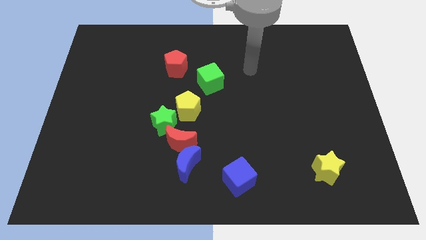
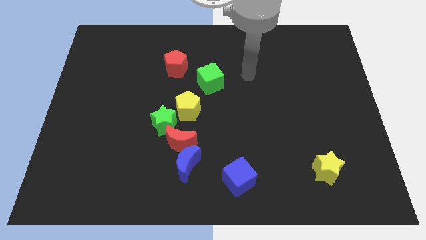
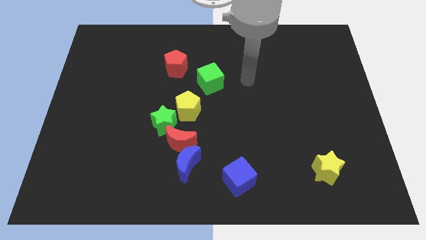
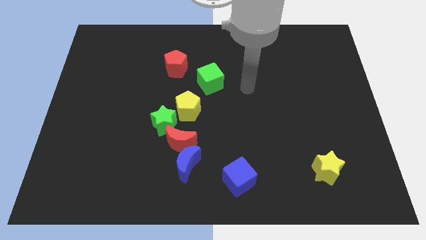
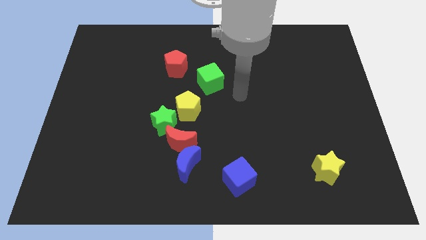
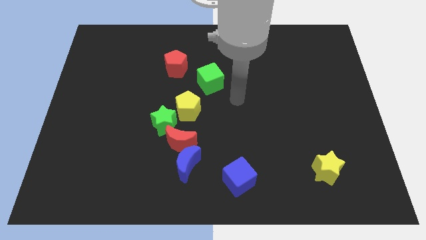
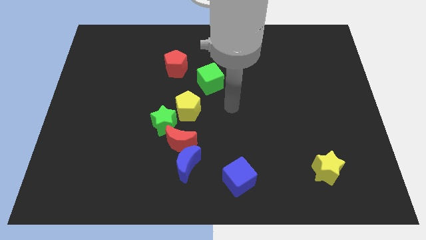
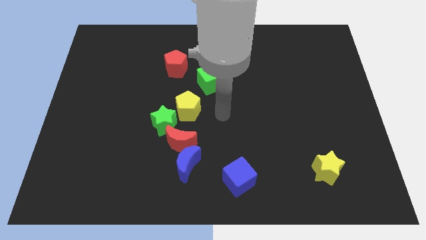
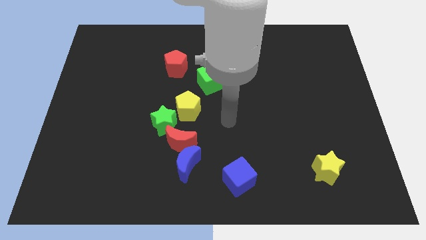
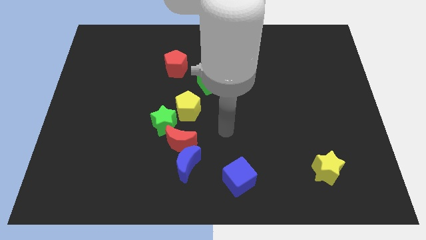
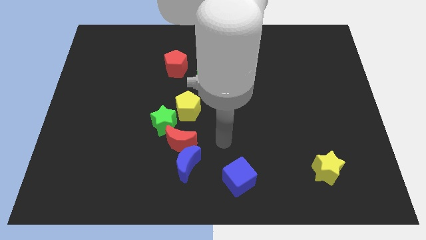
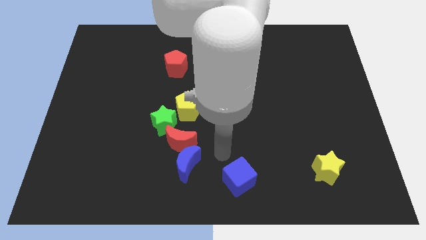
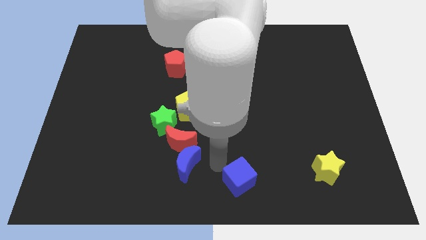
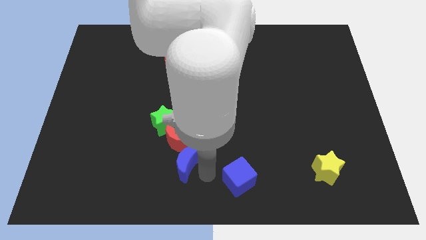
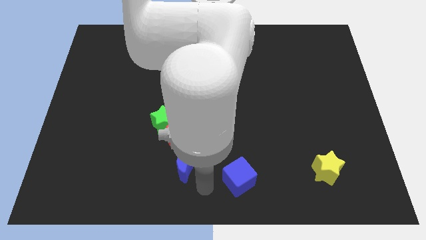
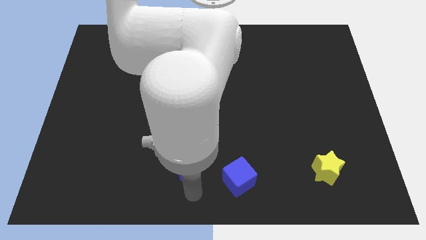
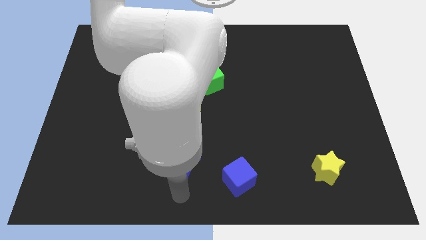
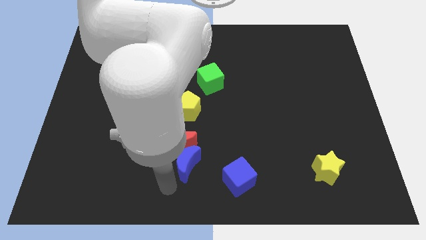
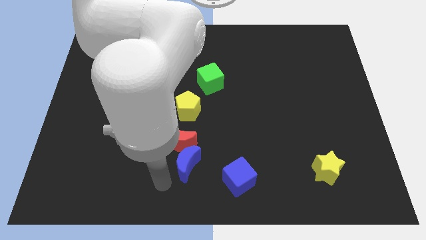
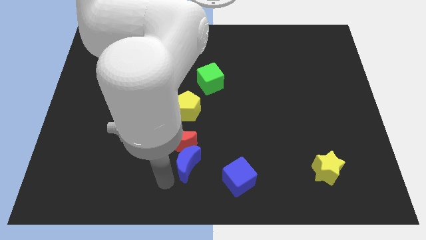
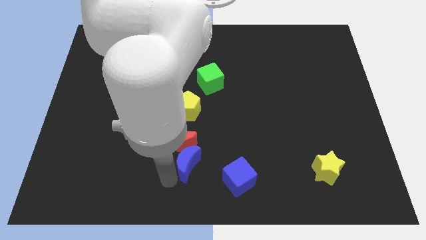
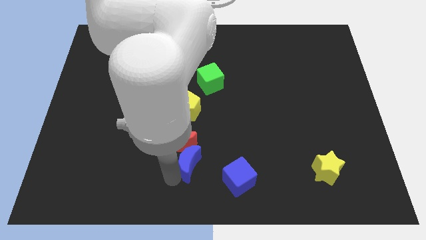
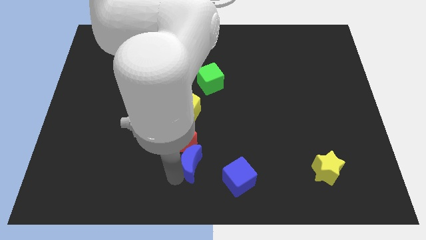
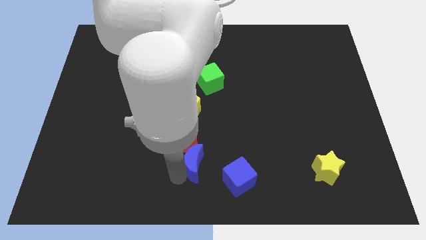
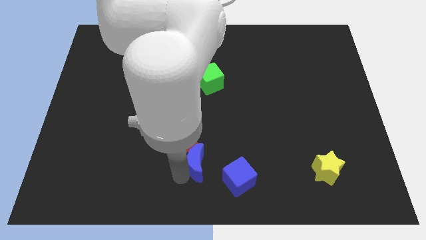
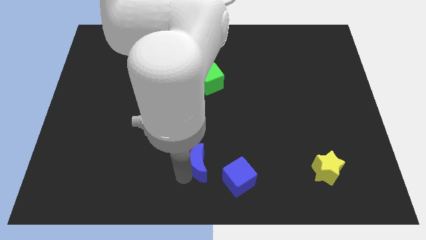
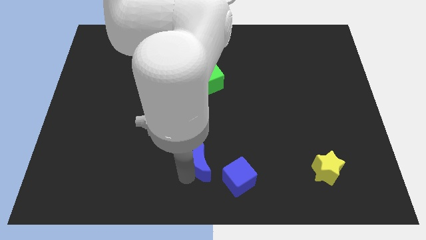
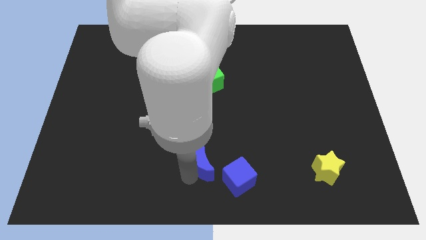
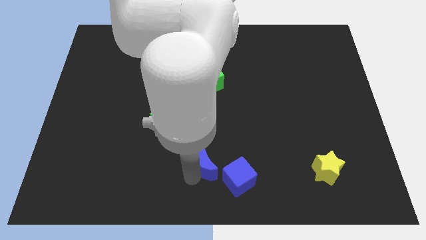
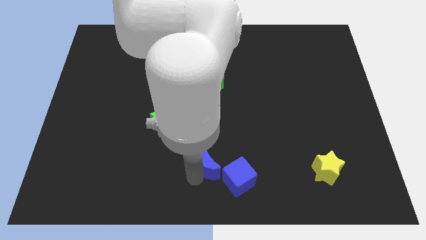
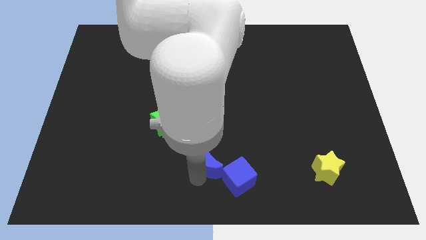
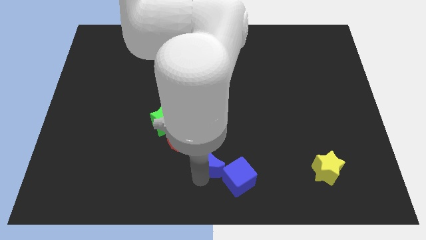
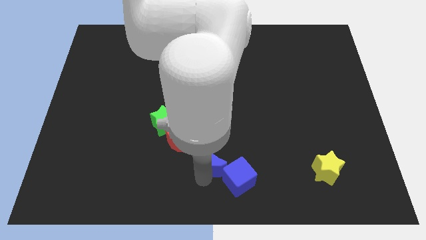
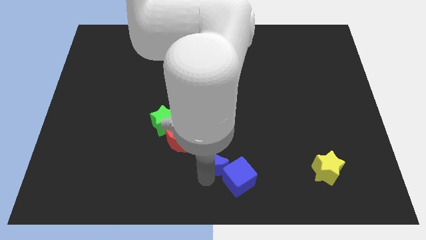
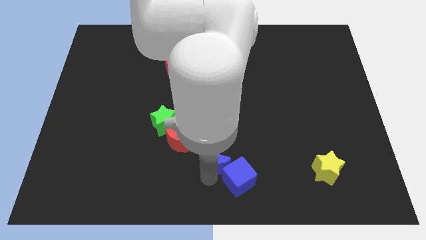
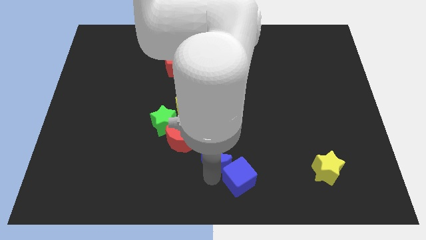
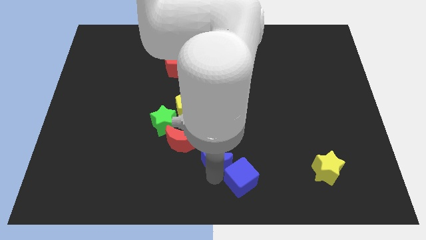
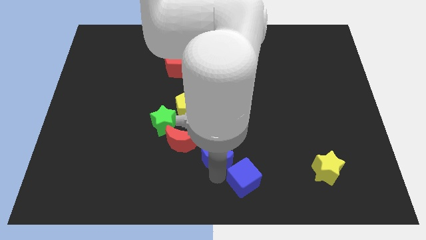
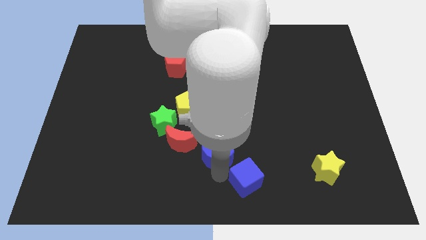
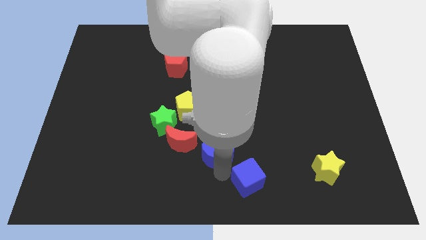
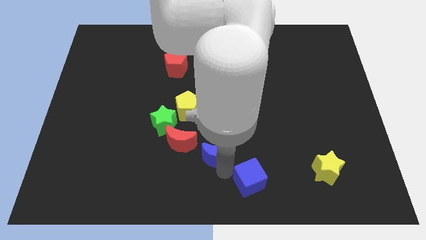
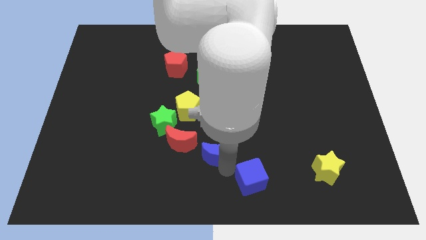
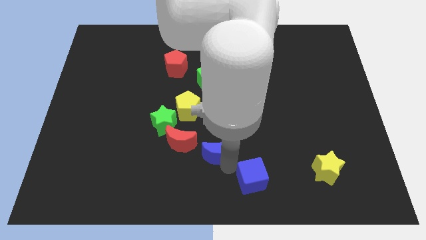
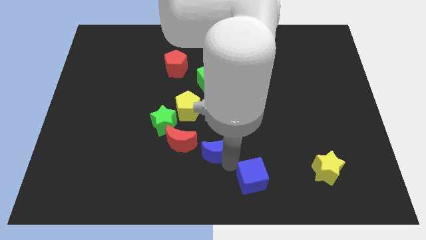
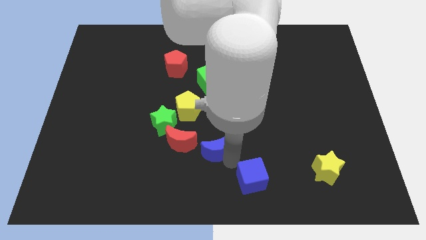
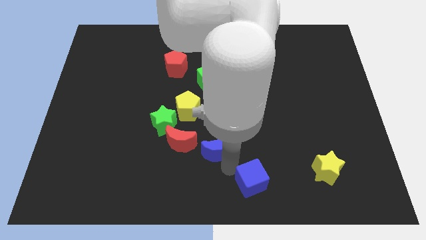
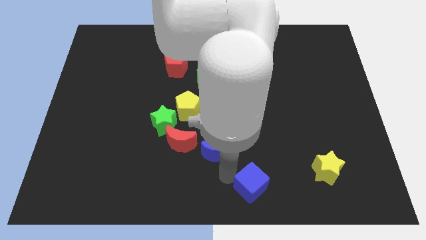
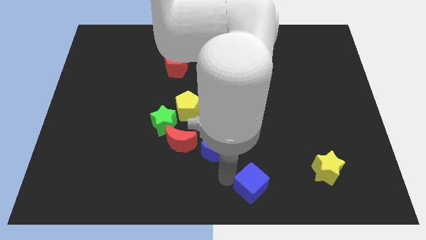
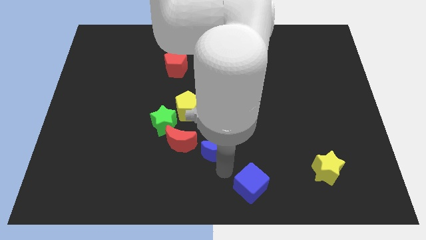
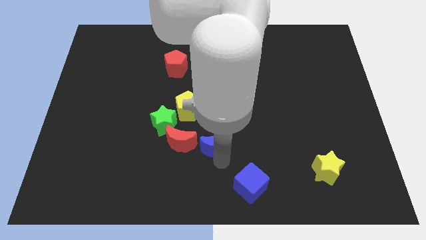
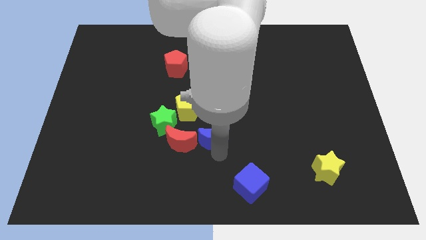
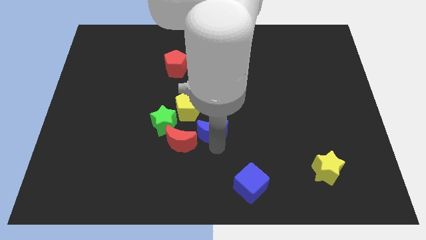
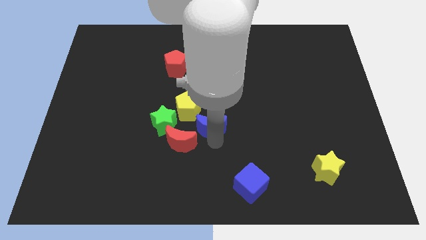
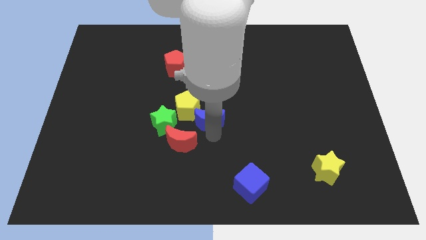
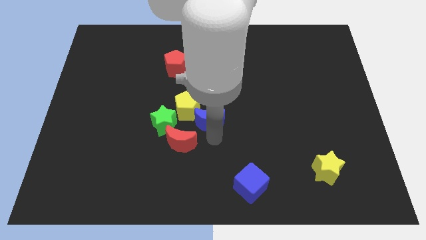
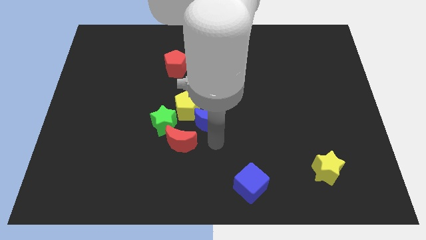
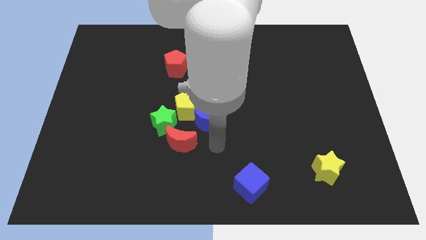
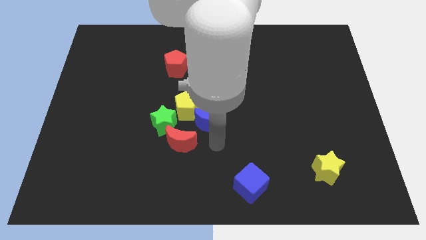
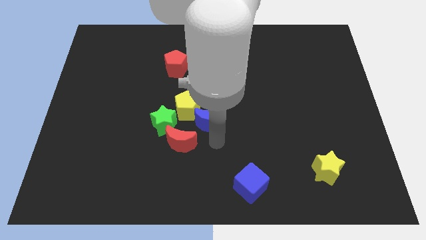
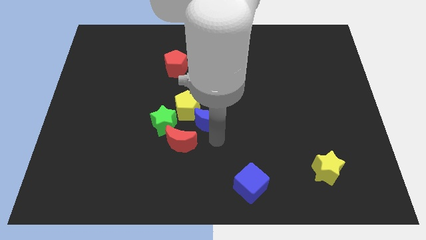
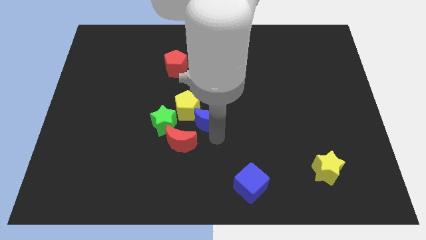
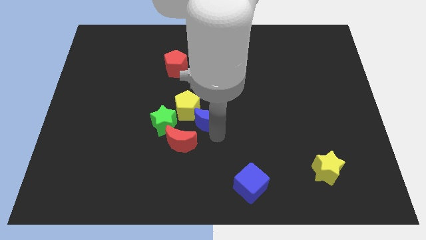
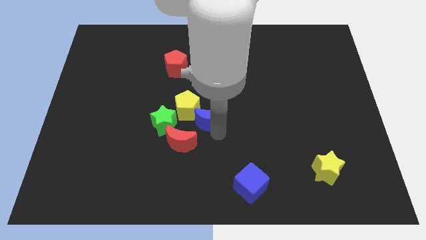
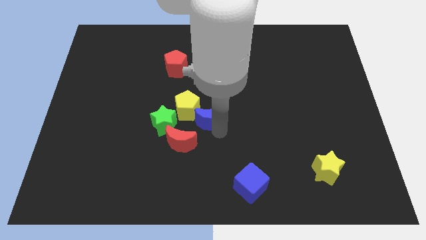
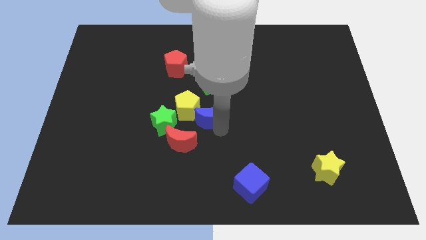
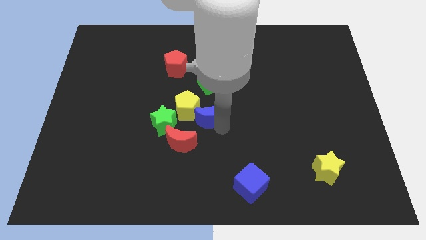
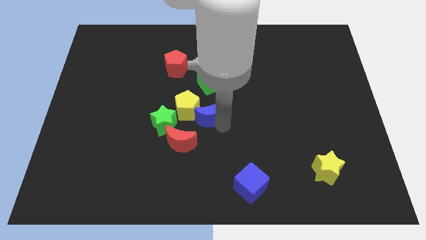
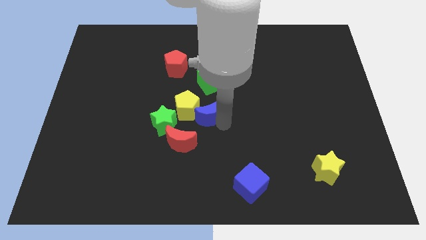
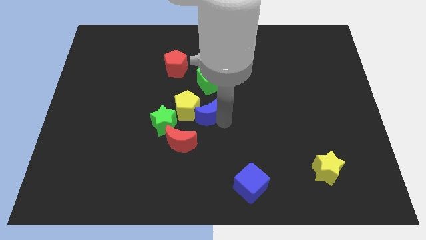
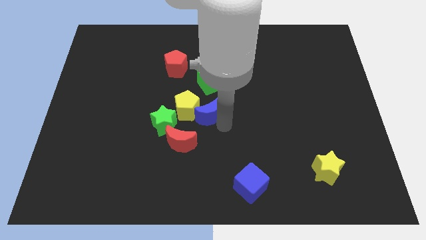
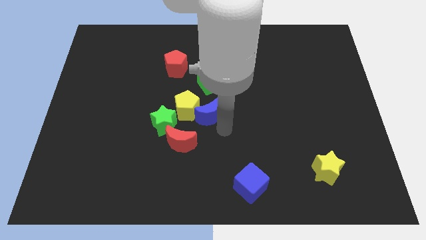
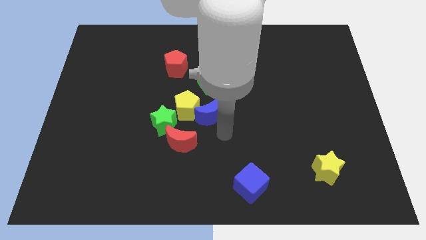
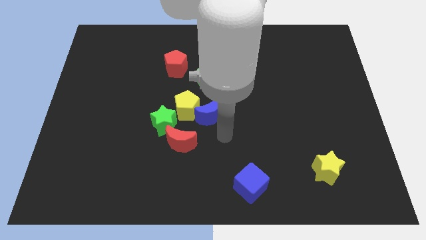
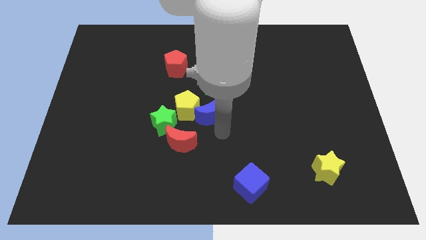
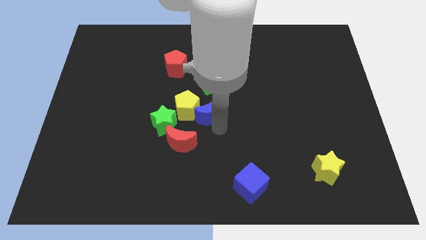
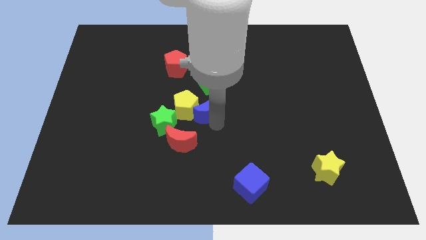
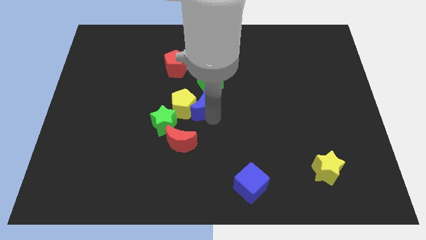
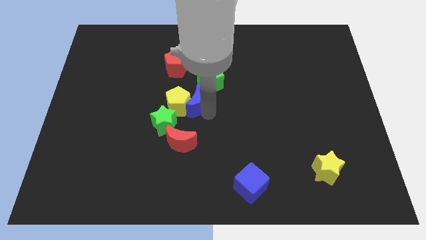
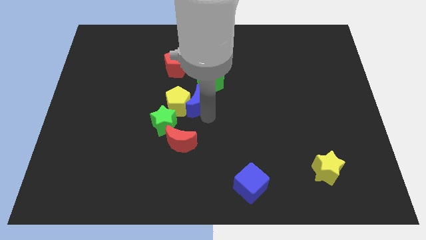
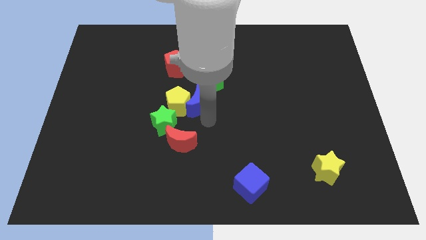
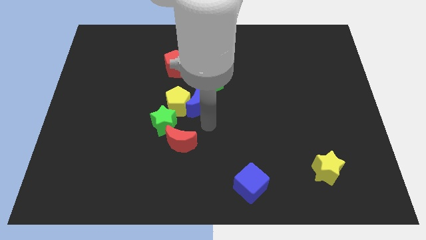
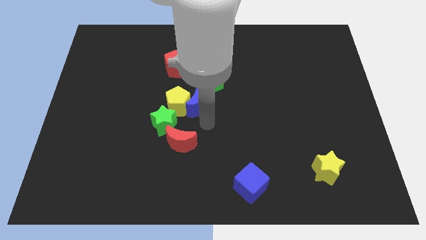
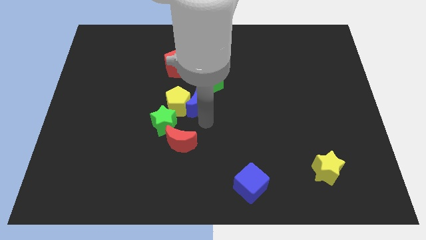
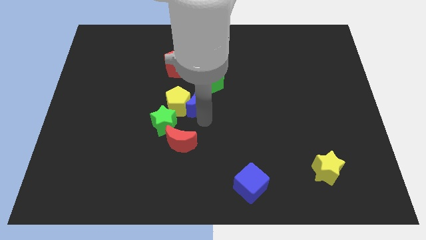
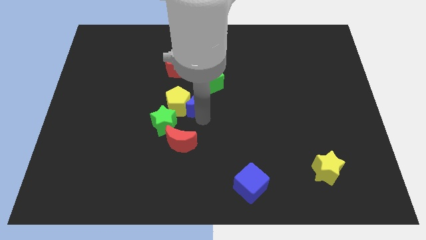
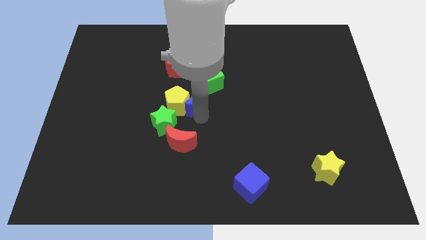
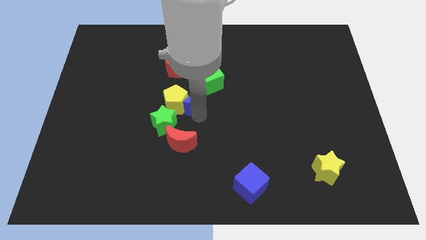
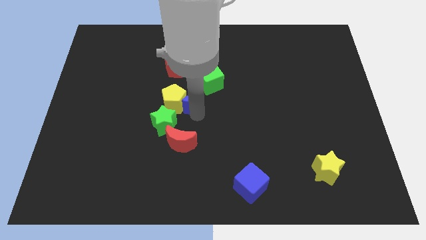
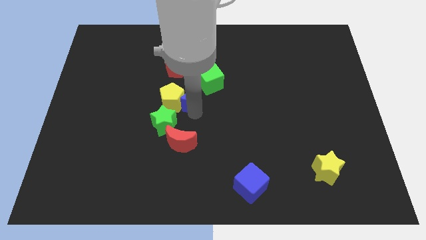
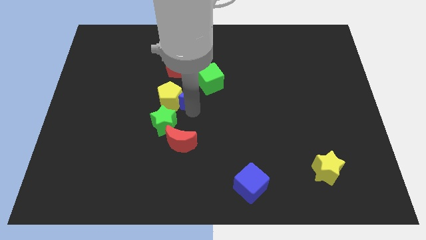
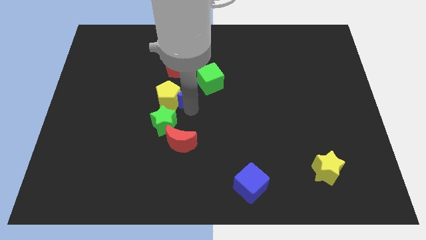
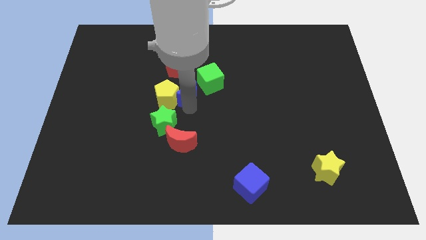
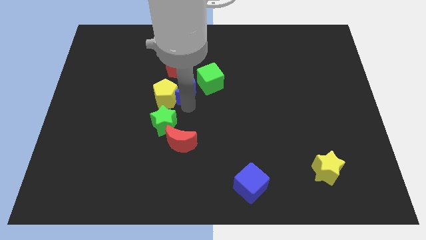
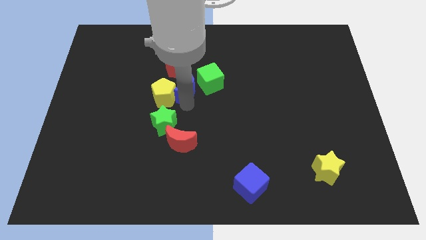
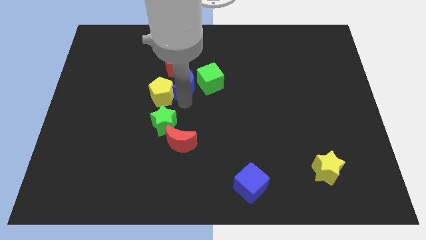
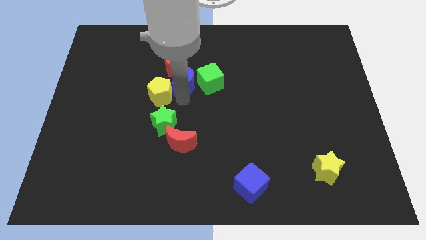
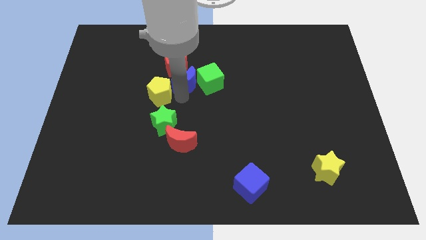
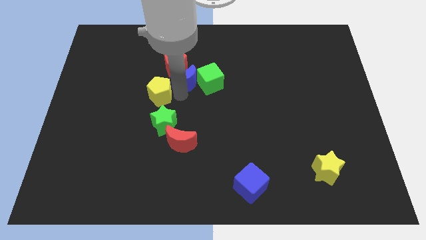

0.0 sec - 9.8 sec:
put the blue moon to the red pentagon
